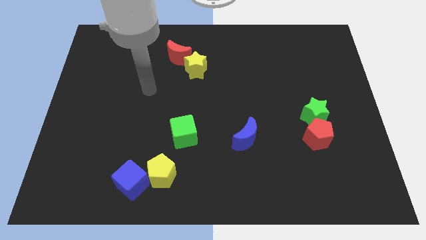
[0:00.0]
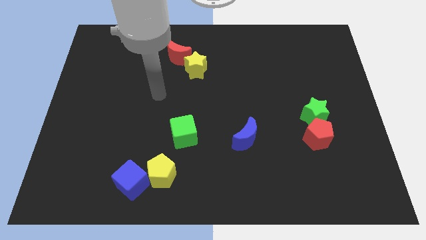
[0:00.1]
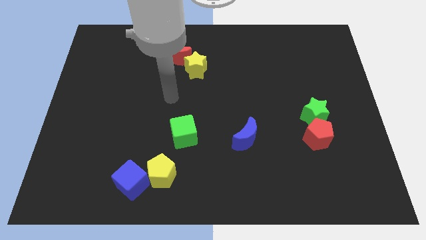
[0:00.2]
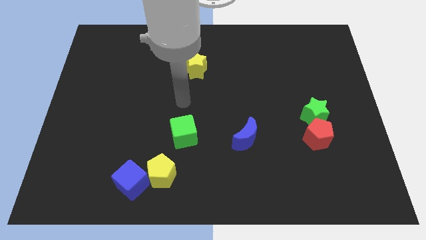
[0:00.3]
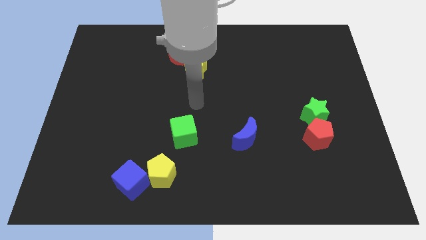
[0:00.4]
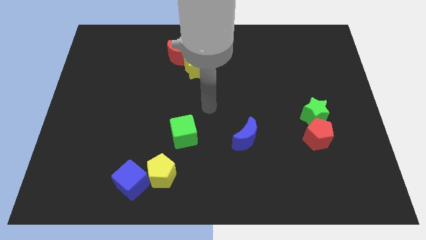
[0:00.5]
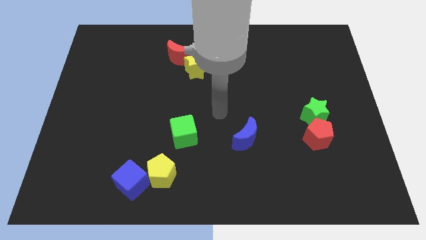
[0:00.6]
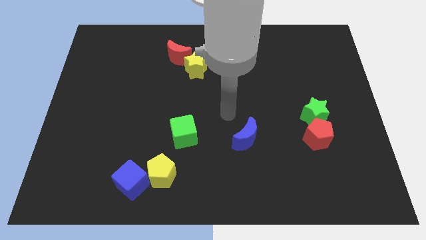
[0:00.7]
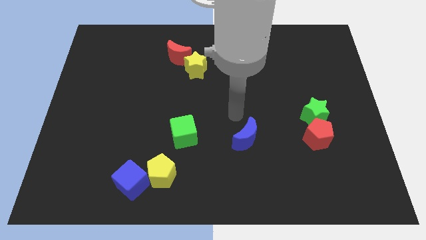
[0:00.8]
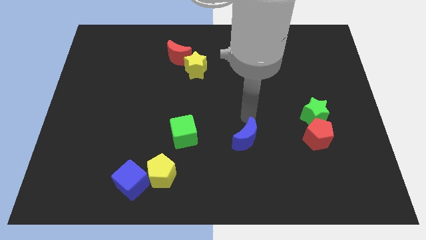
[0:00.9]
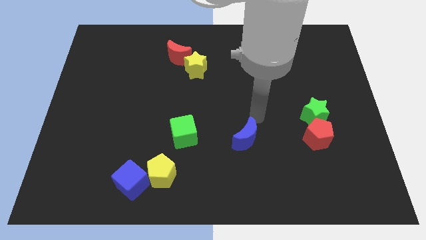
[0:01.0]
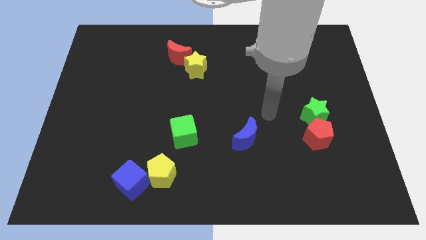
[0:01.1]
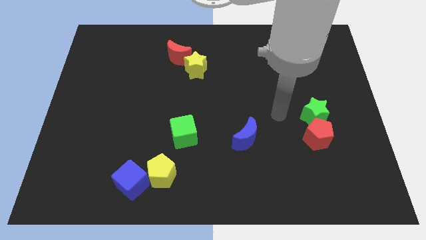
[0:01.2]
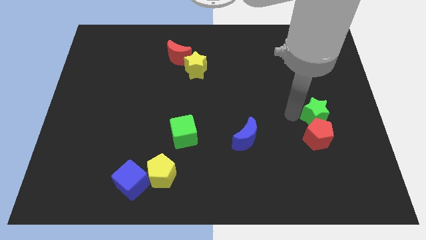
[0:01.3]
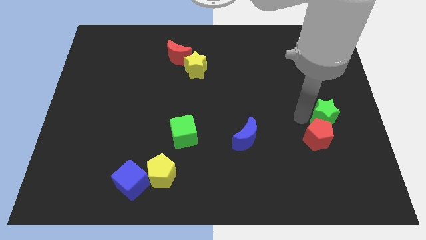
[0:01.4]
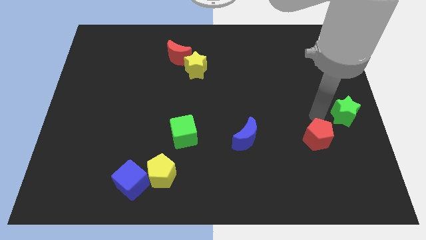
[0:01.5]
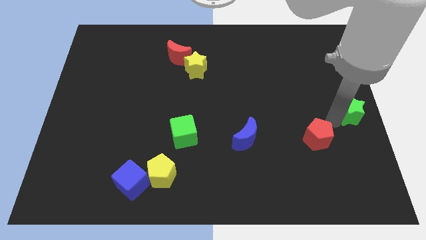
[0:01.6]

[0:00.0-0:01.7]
move the red pentagon away from the green star

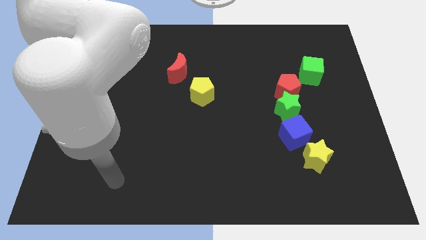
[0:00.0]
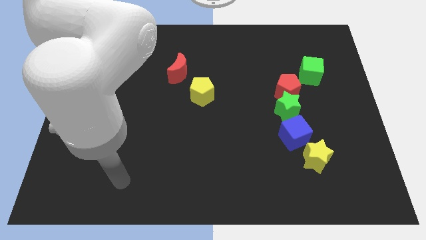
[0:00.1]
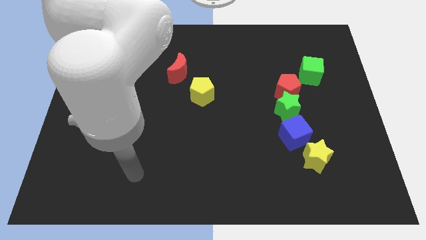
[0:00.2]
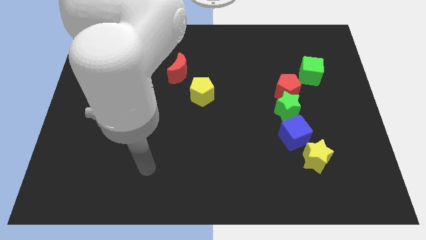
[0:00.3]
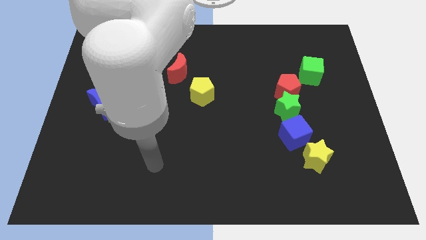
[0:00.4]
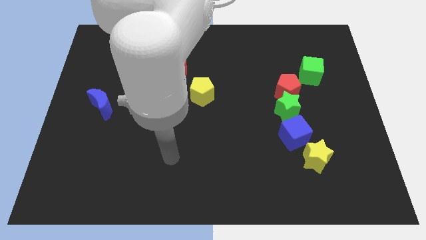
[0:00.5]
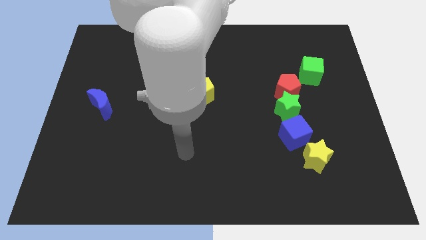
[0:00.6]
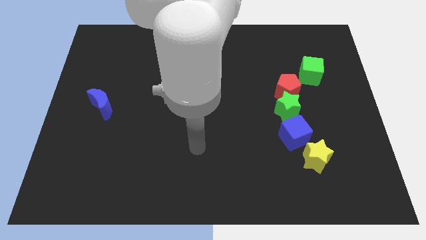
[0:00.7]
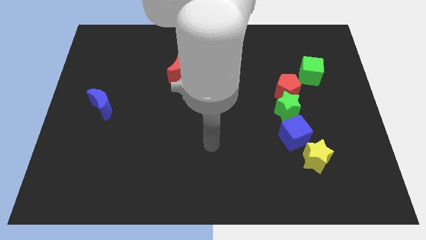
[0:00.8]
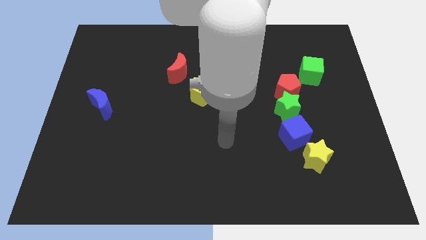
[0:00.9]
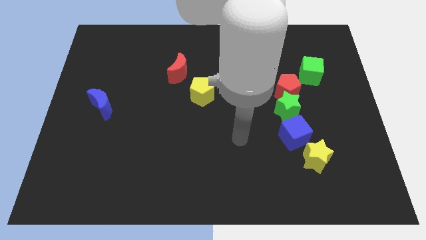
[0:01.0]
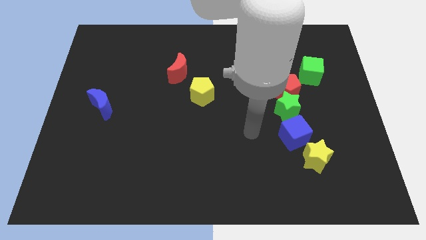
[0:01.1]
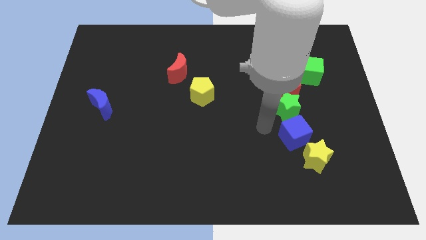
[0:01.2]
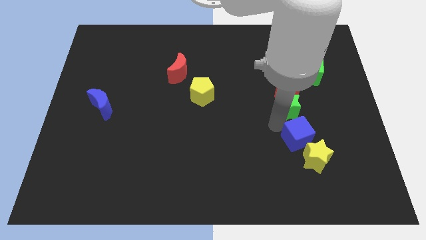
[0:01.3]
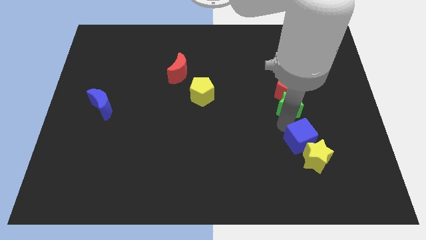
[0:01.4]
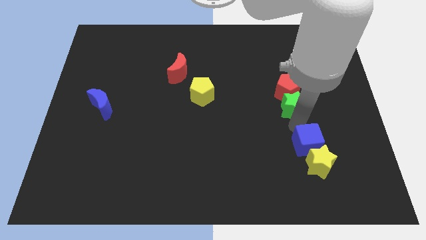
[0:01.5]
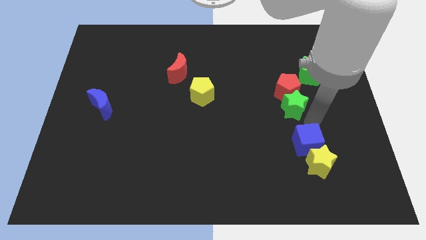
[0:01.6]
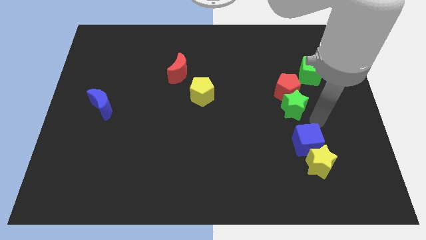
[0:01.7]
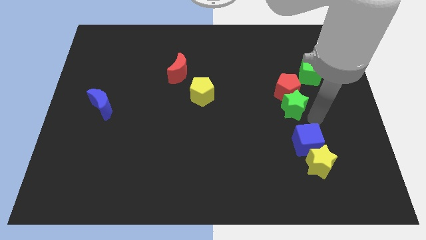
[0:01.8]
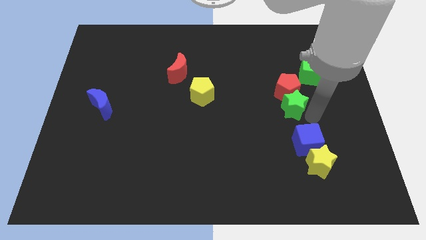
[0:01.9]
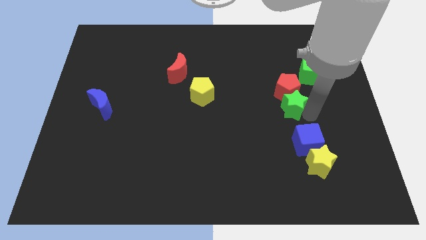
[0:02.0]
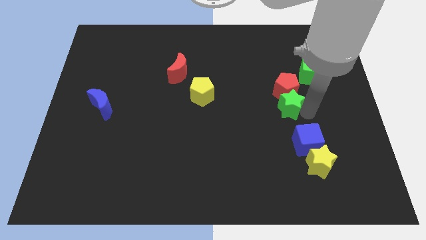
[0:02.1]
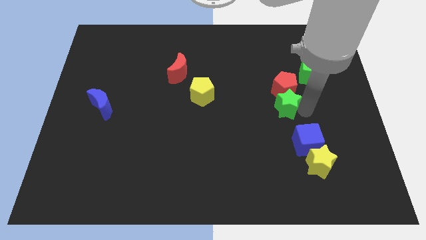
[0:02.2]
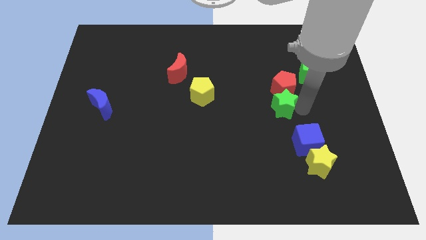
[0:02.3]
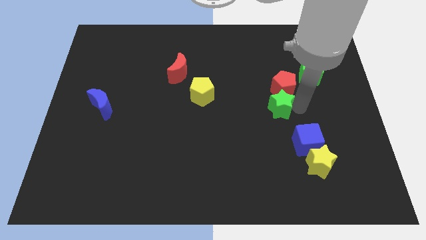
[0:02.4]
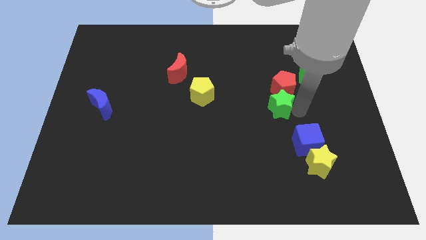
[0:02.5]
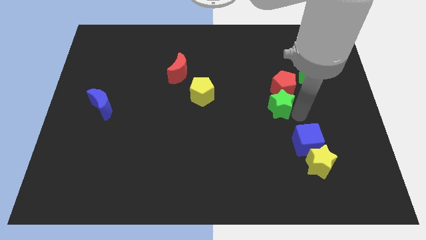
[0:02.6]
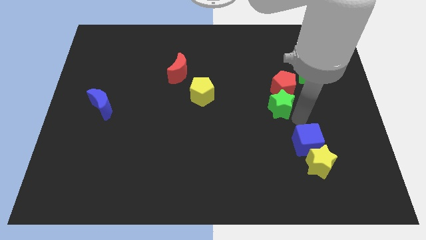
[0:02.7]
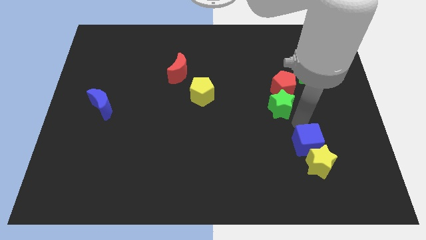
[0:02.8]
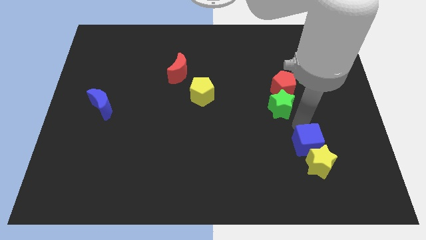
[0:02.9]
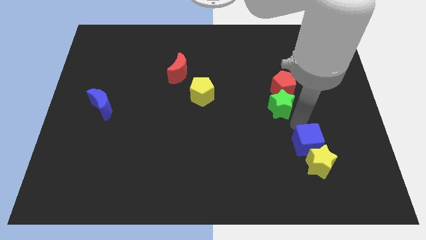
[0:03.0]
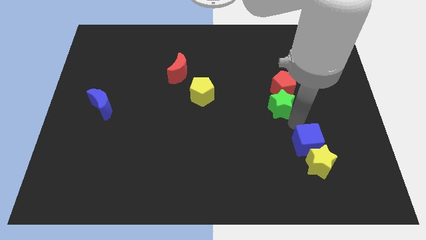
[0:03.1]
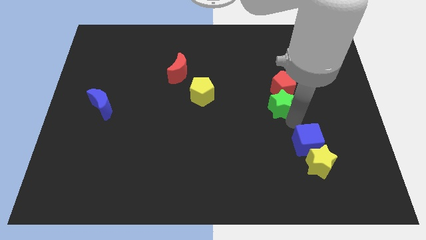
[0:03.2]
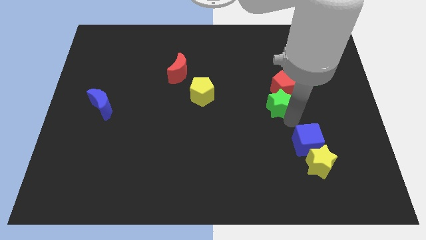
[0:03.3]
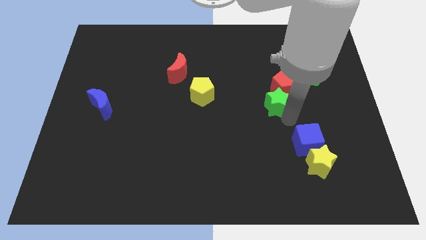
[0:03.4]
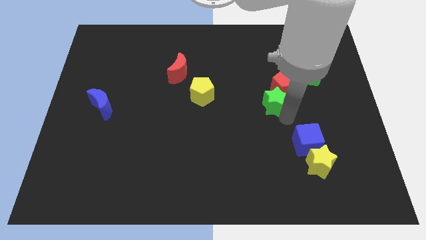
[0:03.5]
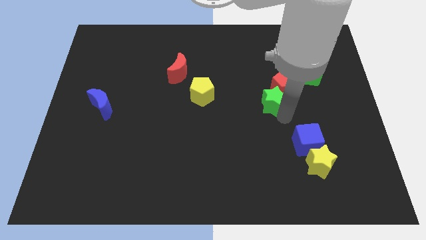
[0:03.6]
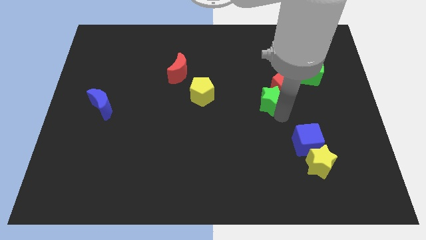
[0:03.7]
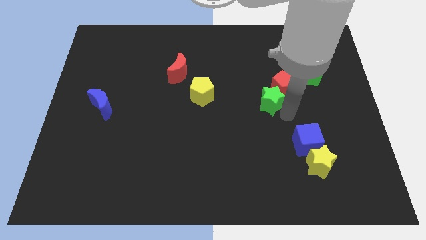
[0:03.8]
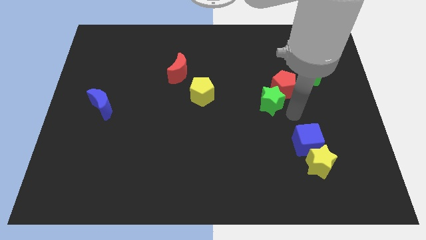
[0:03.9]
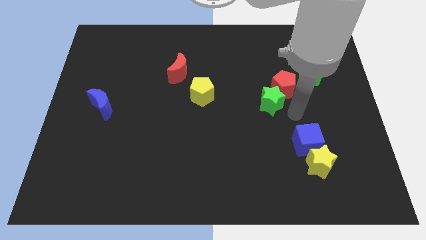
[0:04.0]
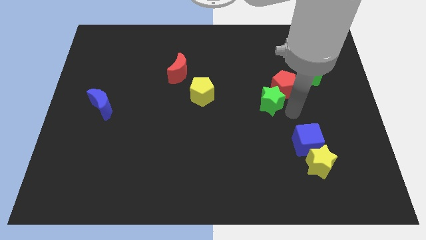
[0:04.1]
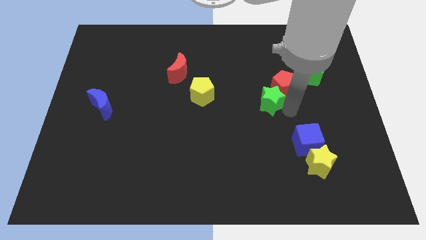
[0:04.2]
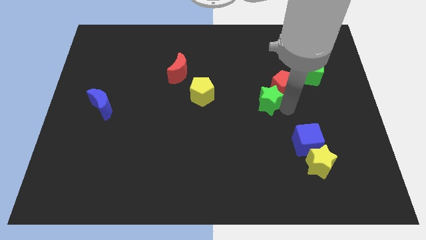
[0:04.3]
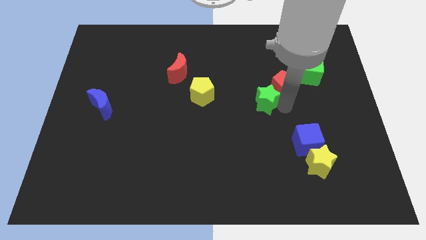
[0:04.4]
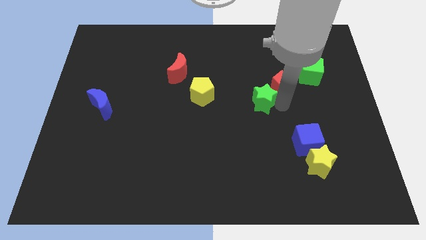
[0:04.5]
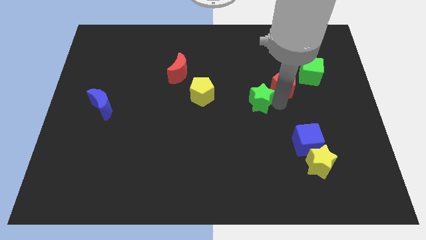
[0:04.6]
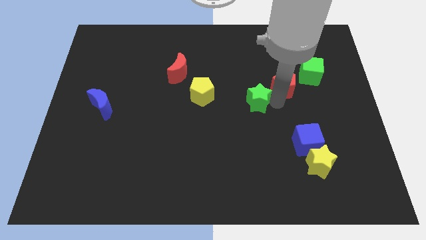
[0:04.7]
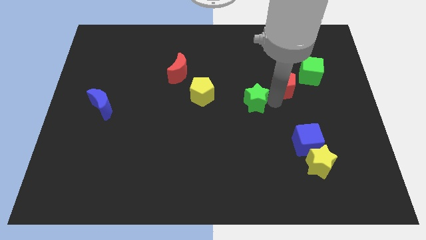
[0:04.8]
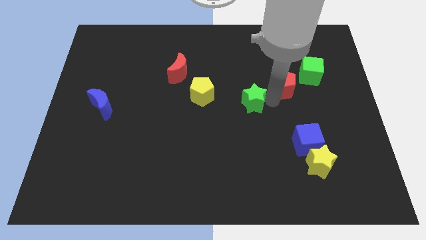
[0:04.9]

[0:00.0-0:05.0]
move the green star away from the red pentagon and blue cube

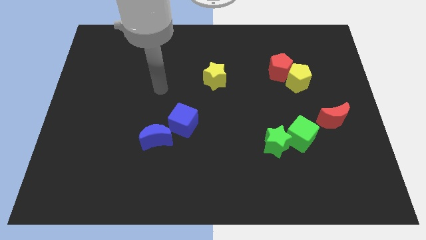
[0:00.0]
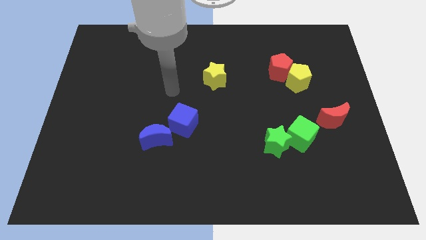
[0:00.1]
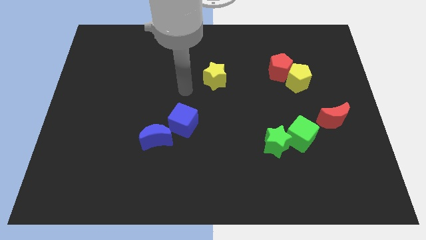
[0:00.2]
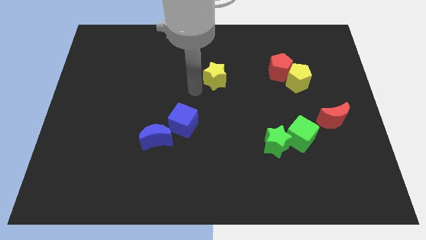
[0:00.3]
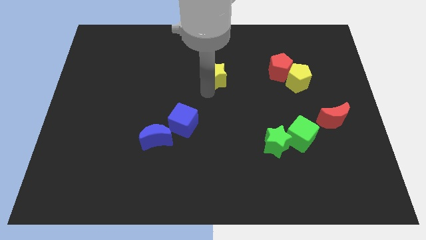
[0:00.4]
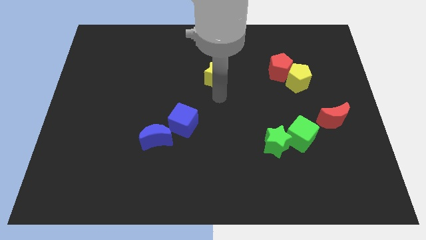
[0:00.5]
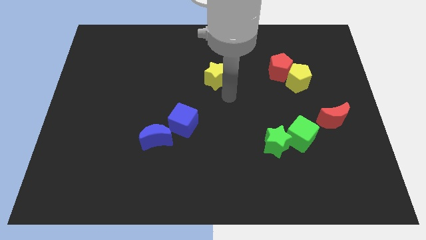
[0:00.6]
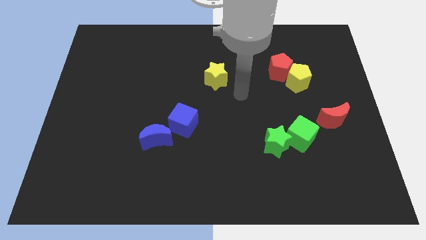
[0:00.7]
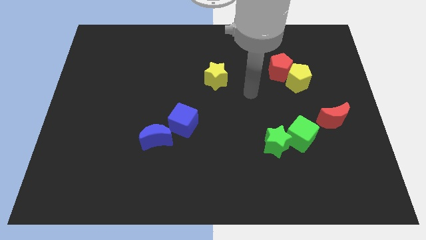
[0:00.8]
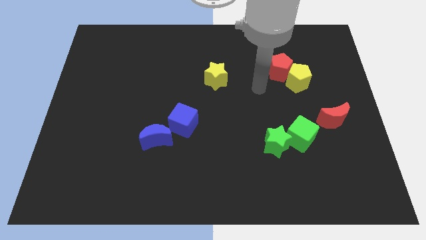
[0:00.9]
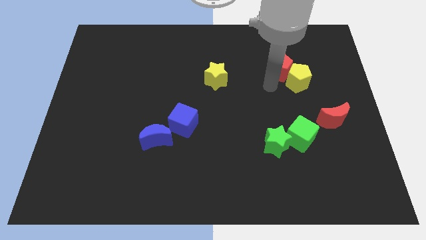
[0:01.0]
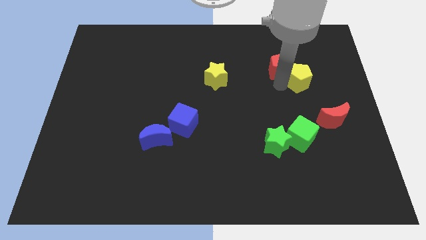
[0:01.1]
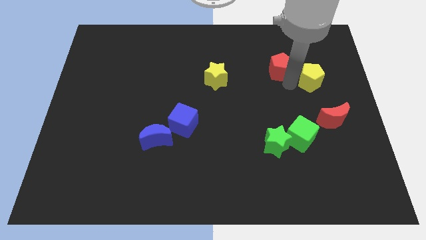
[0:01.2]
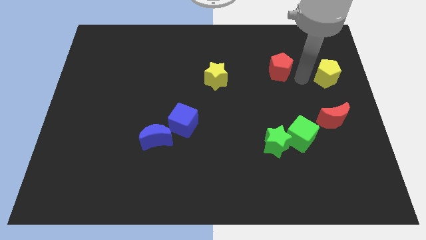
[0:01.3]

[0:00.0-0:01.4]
pull the red pentagon apart from the yellow pentagon

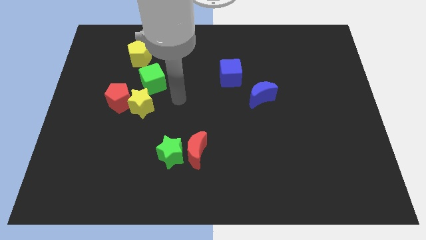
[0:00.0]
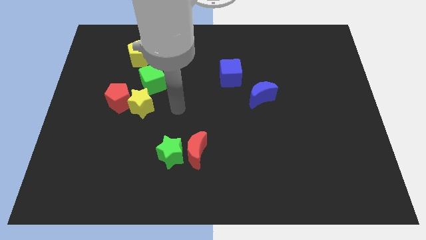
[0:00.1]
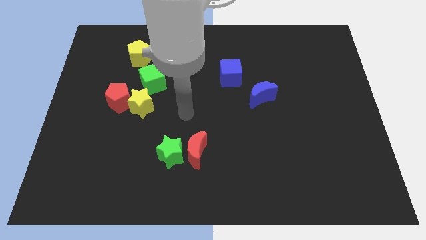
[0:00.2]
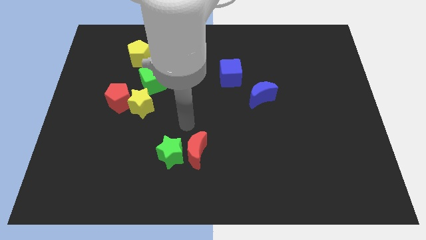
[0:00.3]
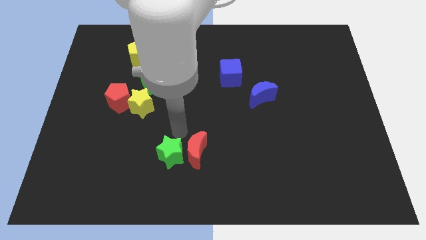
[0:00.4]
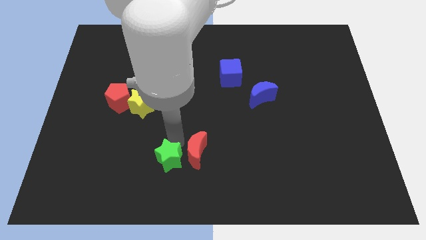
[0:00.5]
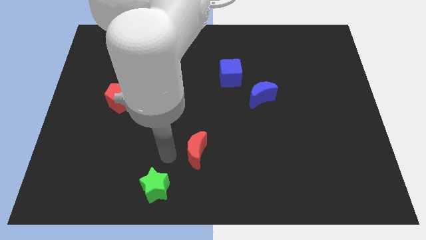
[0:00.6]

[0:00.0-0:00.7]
move the red moon away from the green star

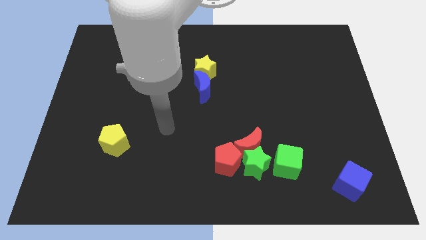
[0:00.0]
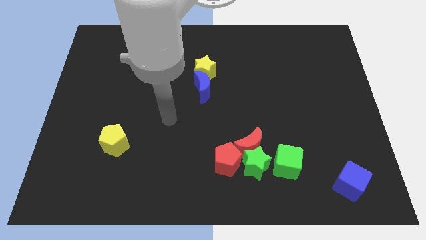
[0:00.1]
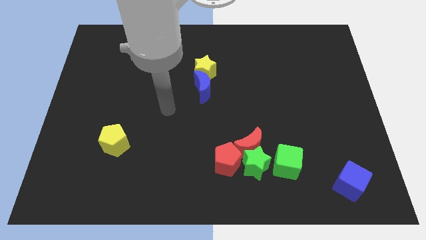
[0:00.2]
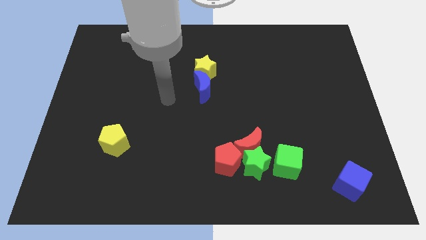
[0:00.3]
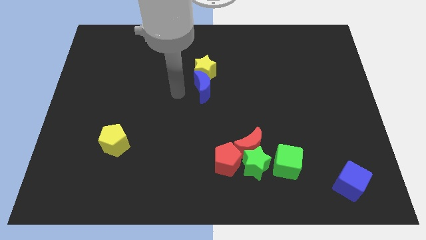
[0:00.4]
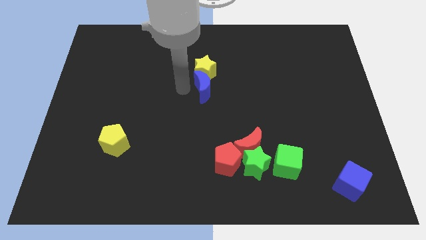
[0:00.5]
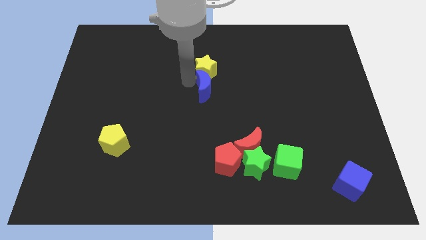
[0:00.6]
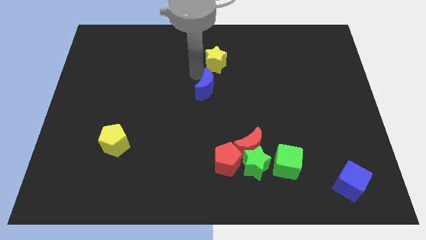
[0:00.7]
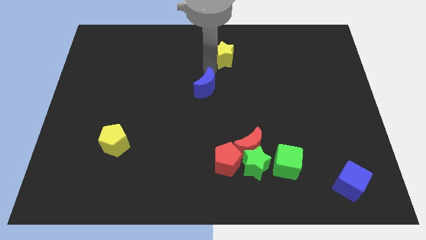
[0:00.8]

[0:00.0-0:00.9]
separate the blue moon from the yellow star
